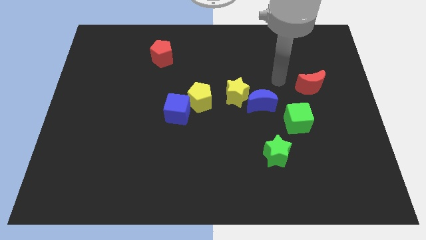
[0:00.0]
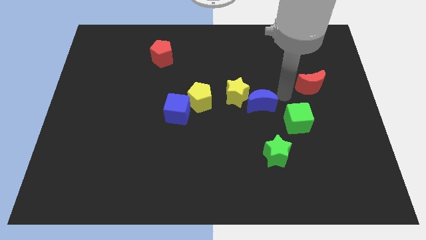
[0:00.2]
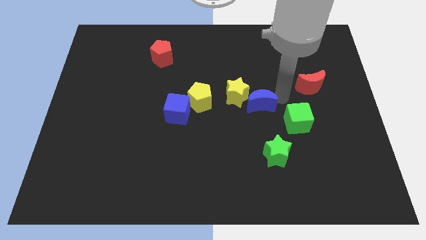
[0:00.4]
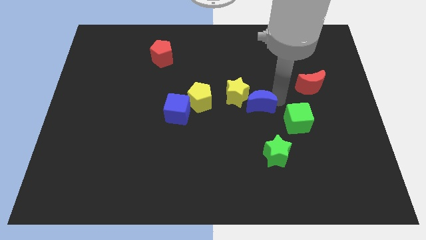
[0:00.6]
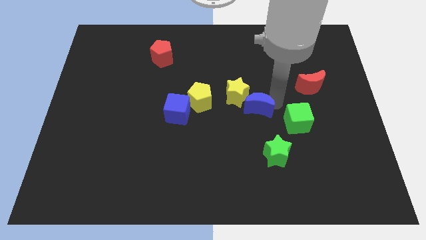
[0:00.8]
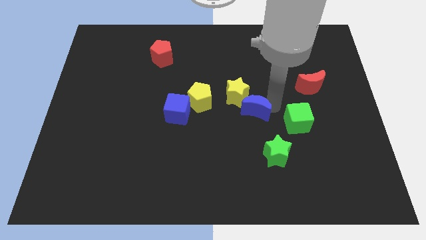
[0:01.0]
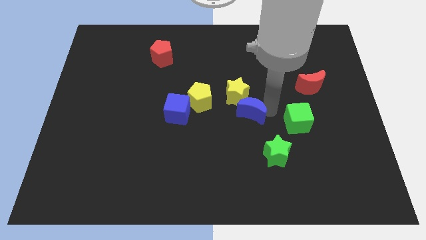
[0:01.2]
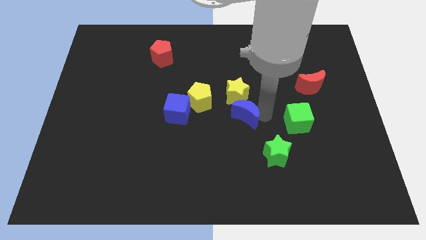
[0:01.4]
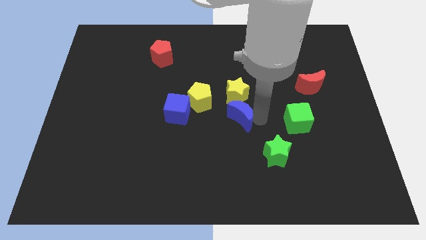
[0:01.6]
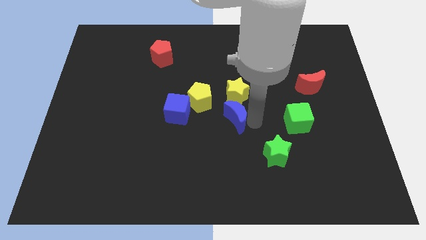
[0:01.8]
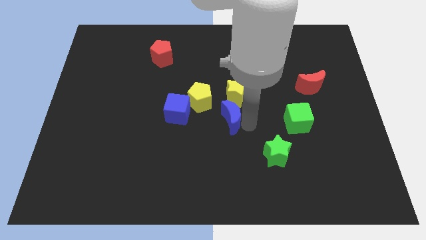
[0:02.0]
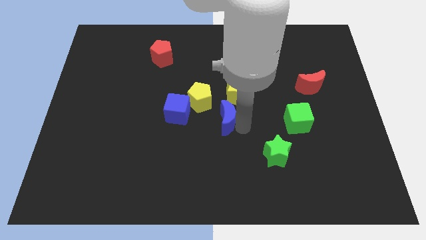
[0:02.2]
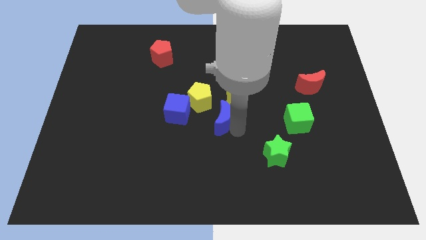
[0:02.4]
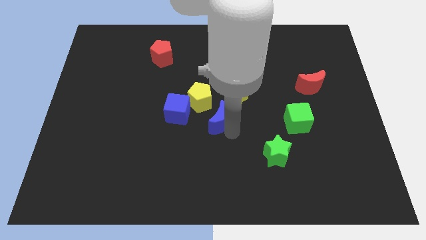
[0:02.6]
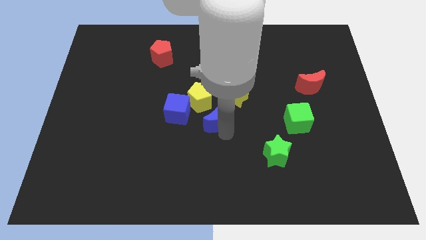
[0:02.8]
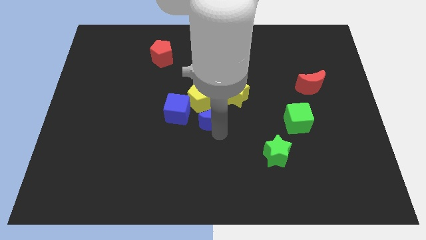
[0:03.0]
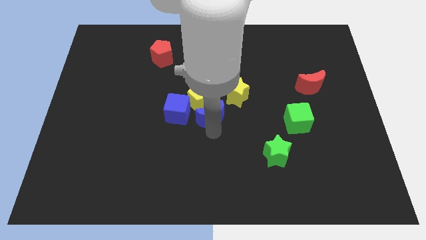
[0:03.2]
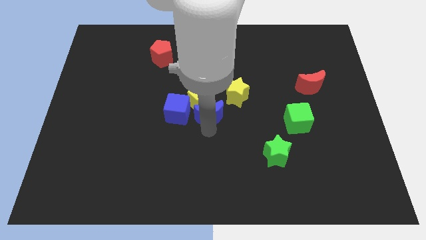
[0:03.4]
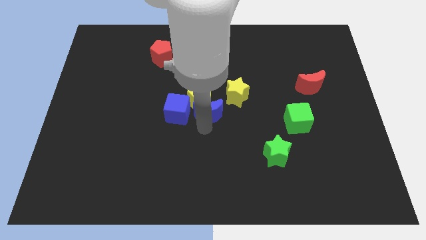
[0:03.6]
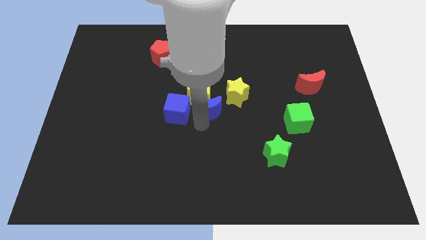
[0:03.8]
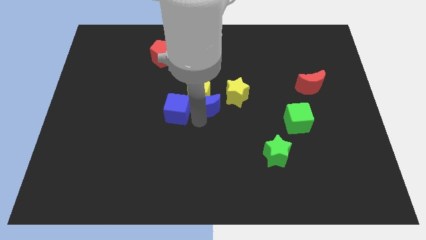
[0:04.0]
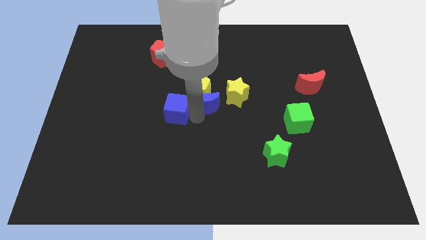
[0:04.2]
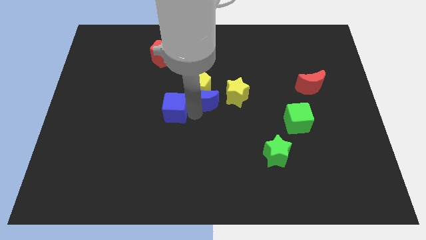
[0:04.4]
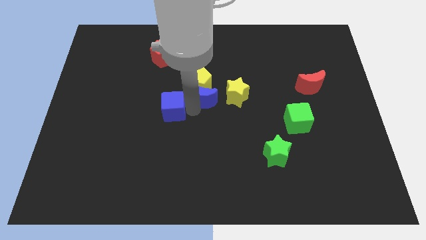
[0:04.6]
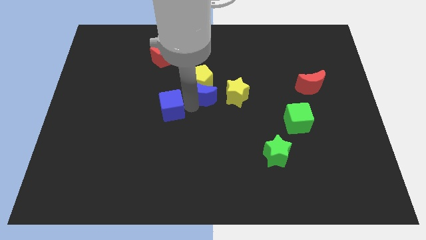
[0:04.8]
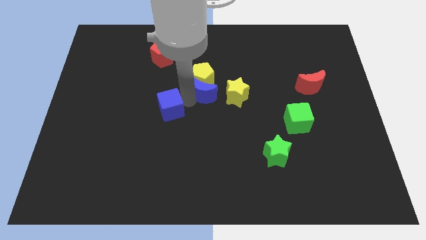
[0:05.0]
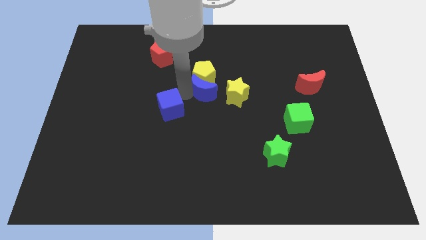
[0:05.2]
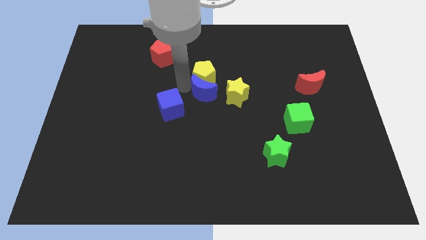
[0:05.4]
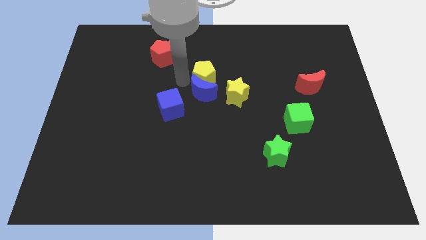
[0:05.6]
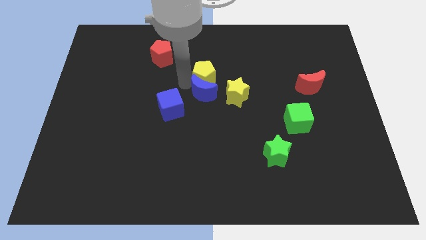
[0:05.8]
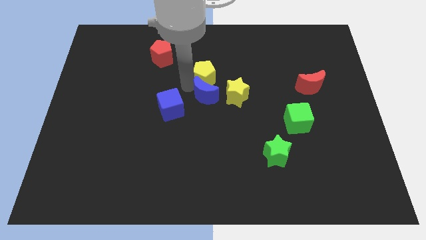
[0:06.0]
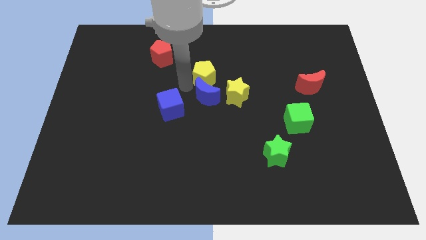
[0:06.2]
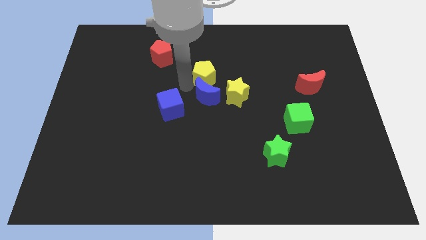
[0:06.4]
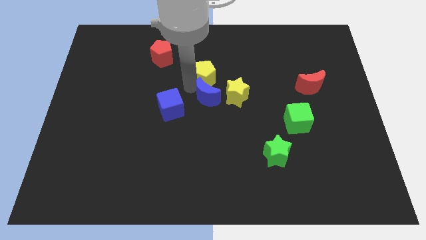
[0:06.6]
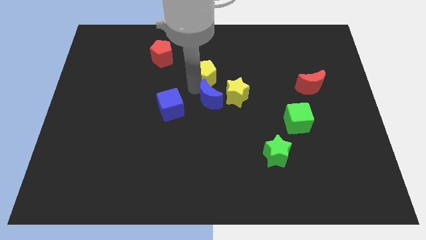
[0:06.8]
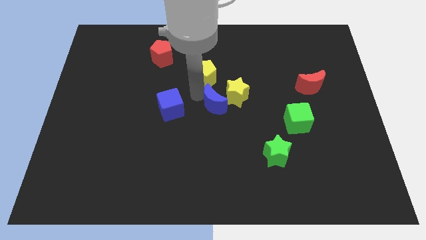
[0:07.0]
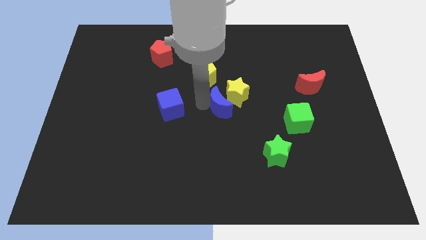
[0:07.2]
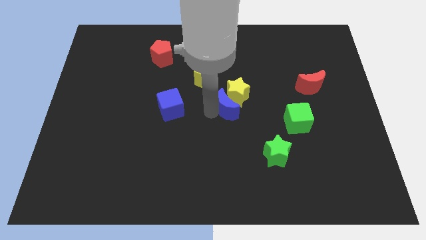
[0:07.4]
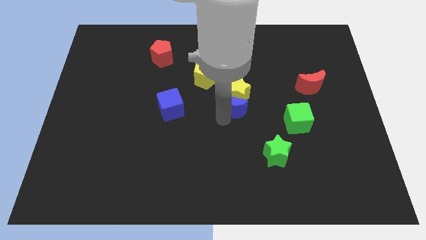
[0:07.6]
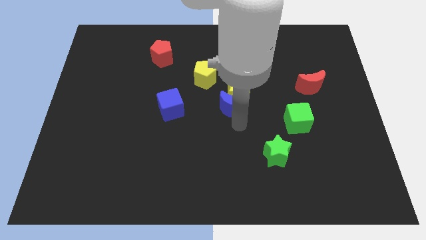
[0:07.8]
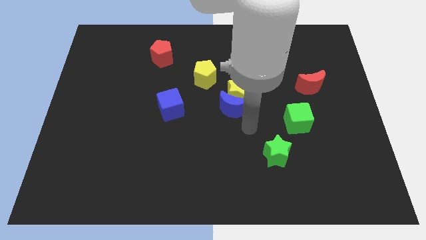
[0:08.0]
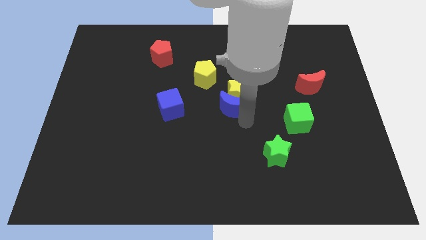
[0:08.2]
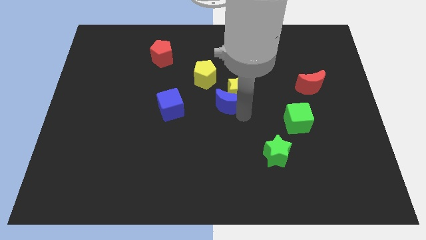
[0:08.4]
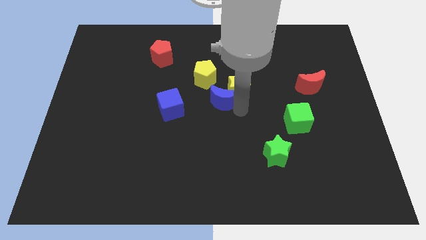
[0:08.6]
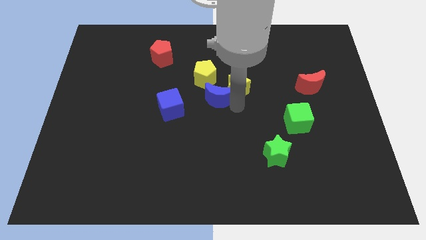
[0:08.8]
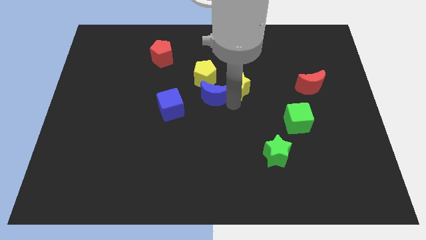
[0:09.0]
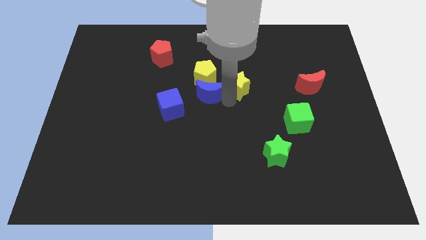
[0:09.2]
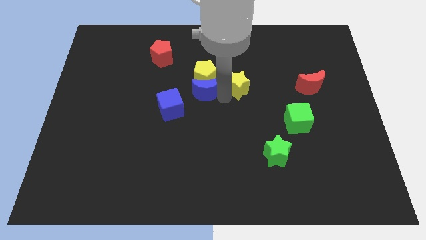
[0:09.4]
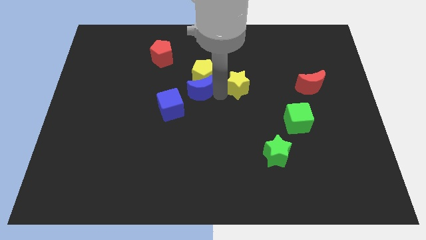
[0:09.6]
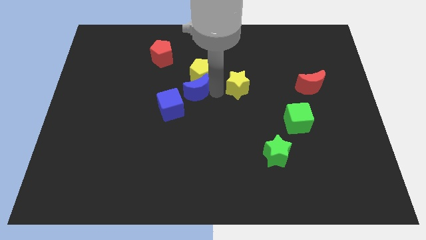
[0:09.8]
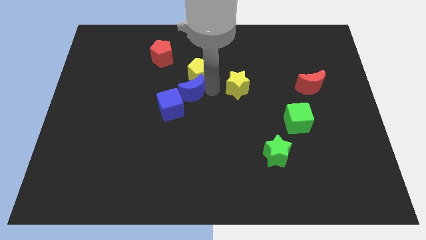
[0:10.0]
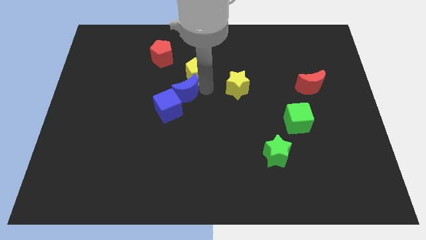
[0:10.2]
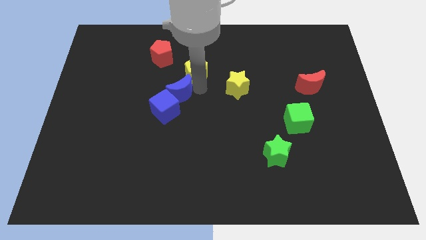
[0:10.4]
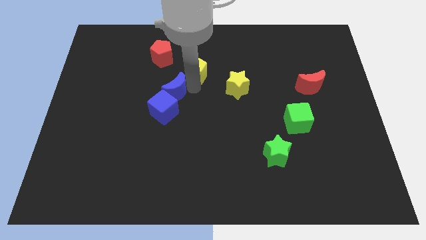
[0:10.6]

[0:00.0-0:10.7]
slide the blue moon to the bottom side of the red pentagon

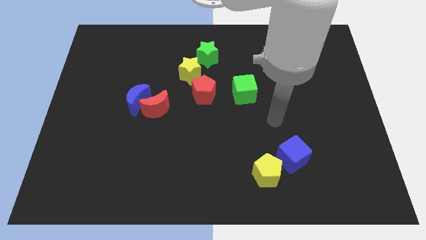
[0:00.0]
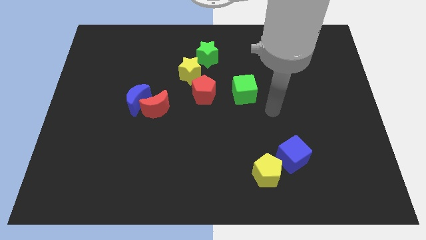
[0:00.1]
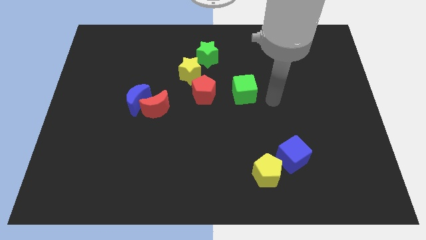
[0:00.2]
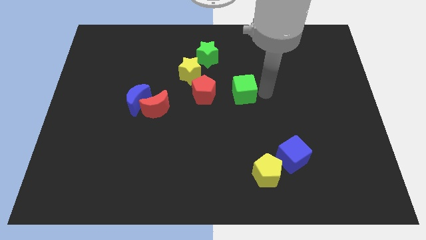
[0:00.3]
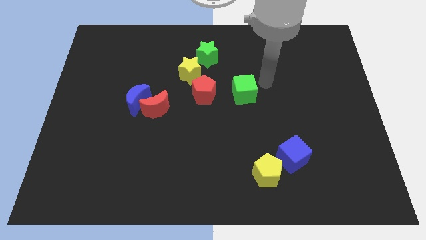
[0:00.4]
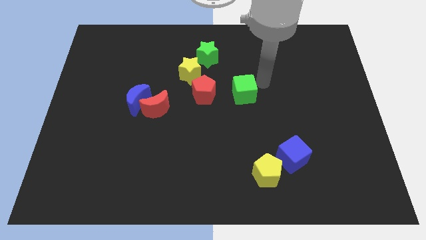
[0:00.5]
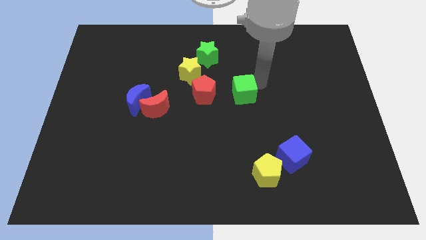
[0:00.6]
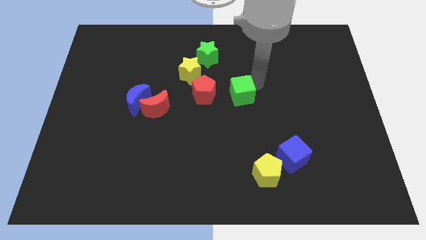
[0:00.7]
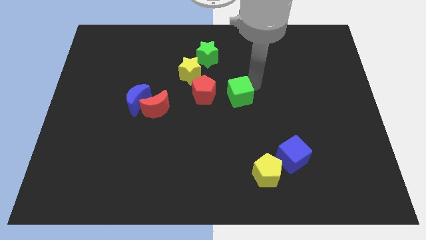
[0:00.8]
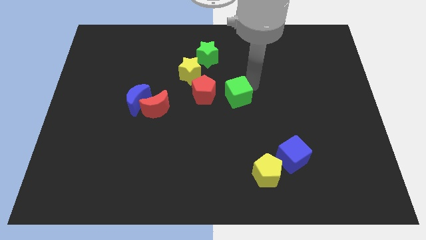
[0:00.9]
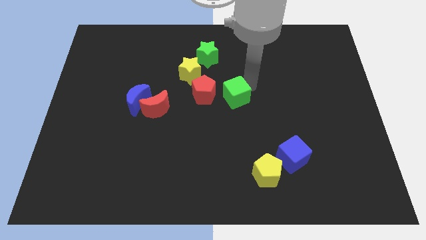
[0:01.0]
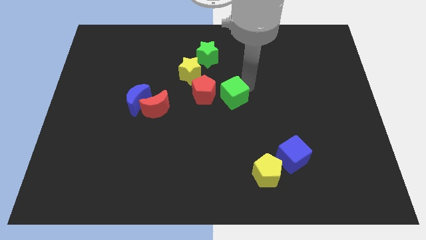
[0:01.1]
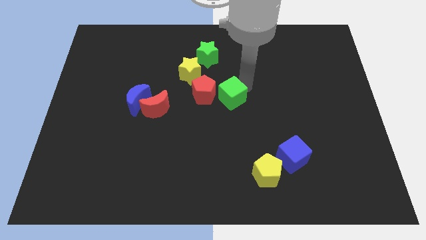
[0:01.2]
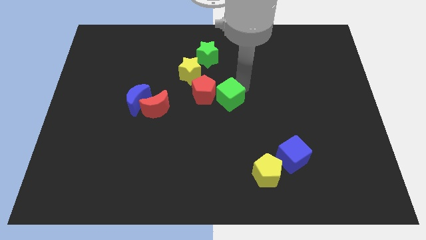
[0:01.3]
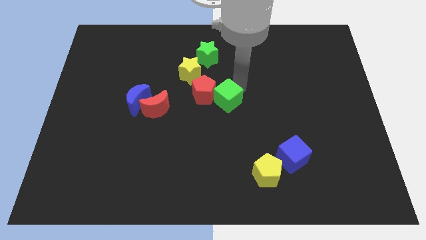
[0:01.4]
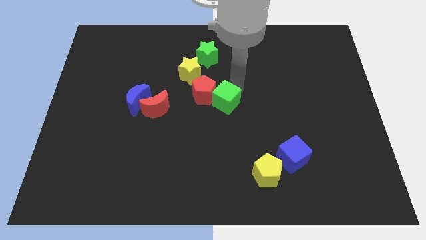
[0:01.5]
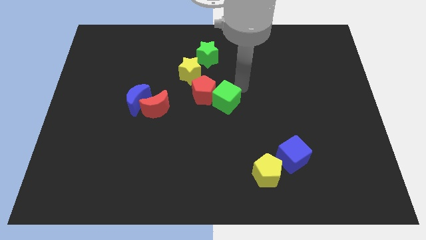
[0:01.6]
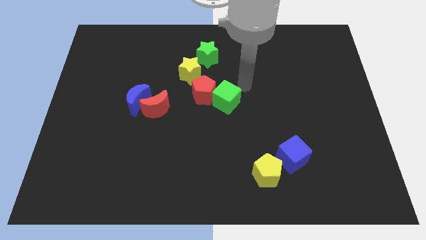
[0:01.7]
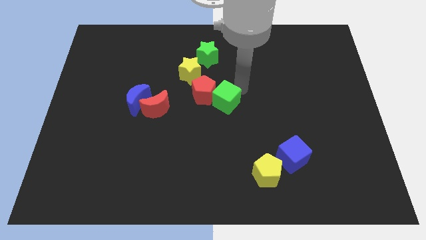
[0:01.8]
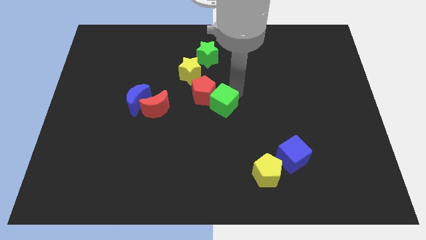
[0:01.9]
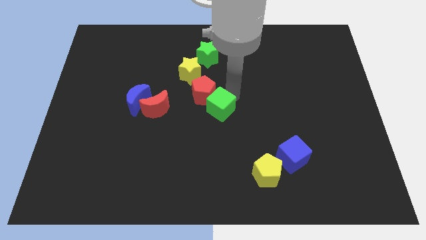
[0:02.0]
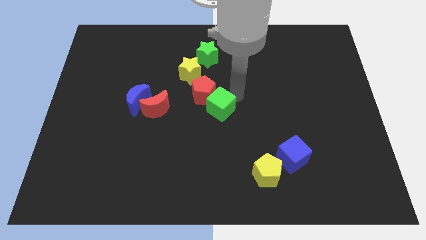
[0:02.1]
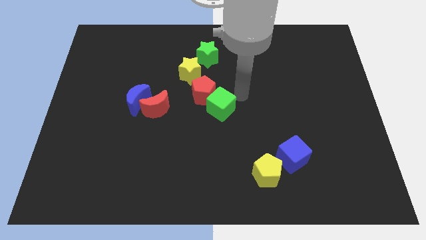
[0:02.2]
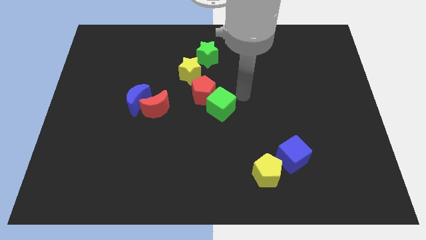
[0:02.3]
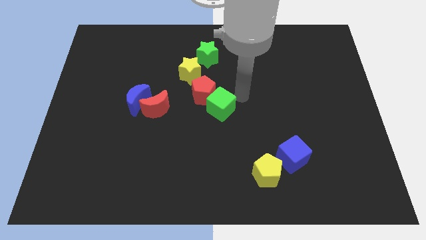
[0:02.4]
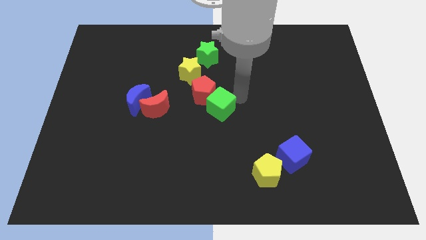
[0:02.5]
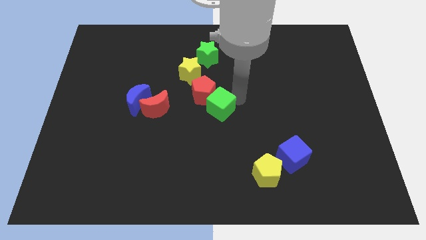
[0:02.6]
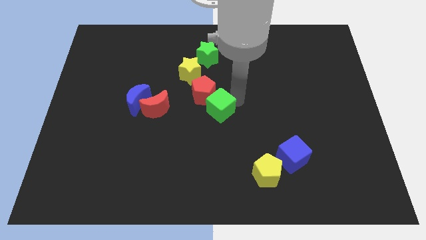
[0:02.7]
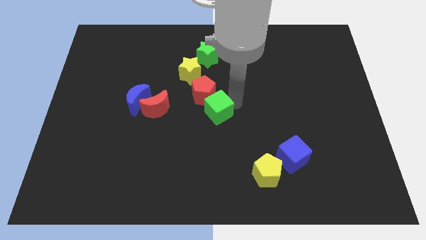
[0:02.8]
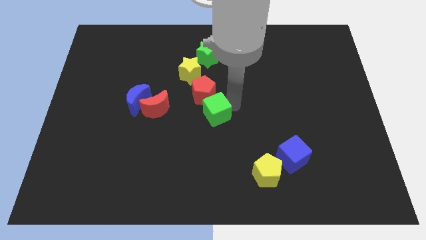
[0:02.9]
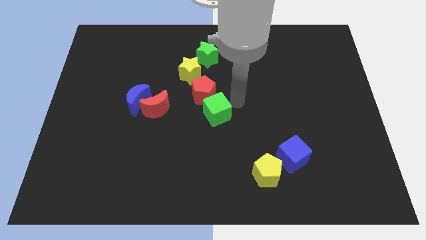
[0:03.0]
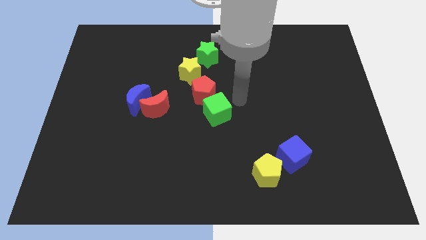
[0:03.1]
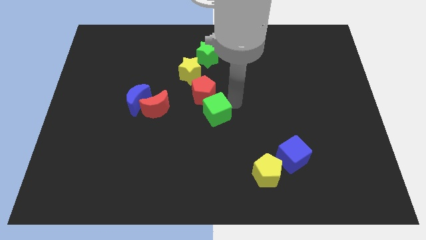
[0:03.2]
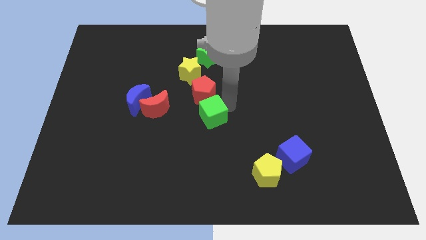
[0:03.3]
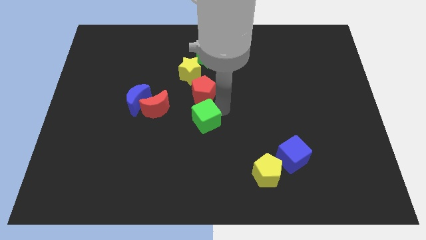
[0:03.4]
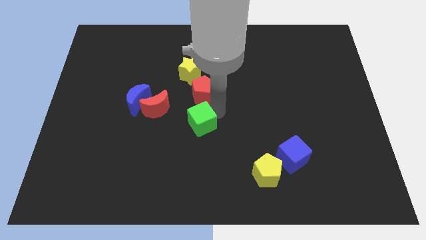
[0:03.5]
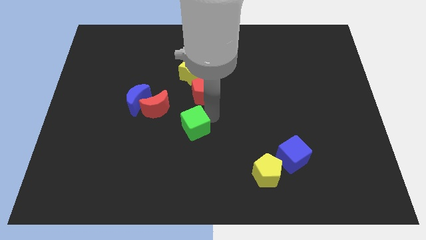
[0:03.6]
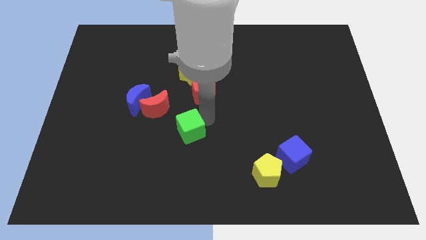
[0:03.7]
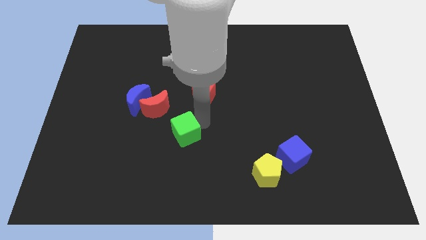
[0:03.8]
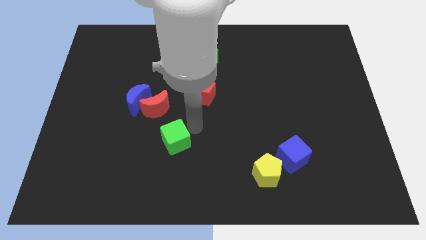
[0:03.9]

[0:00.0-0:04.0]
slide the green cube to the bottom of the red moon
